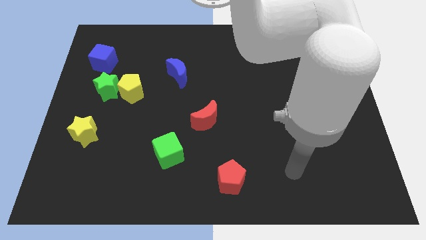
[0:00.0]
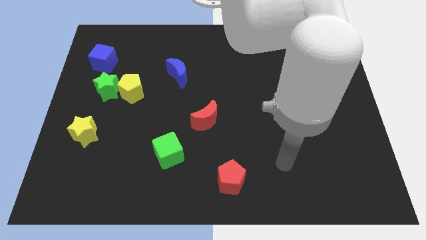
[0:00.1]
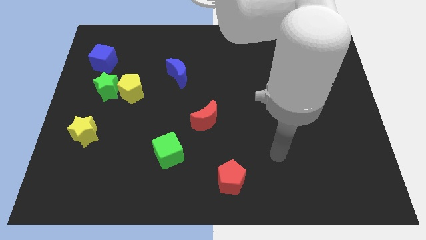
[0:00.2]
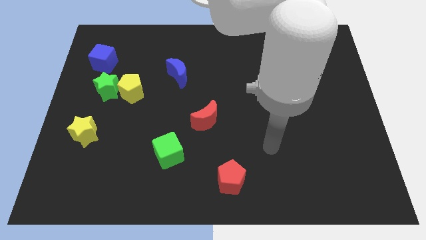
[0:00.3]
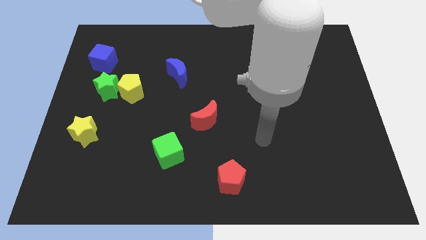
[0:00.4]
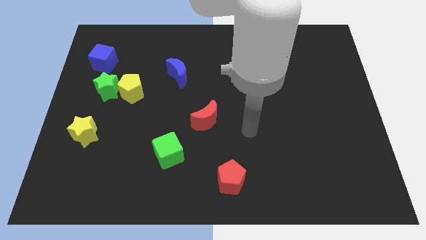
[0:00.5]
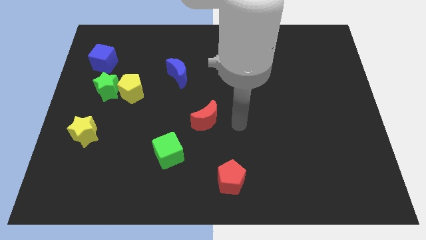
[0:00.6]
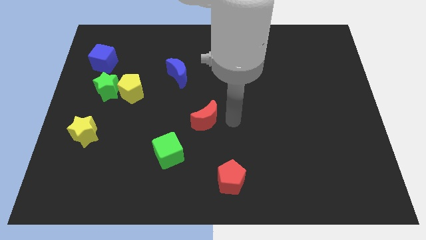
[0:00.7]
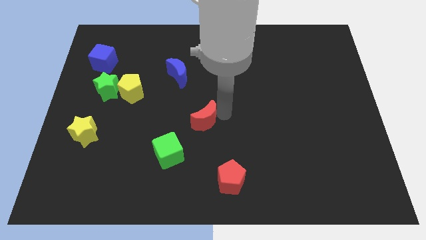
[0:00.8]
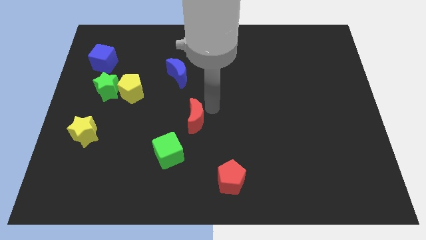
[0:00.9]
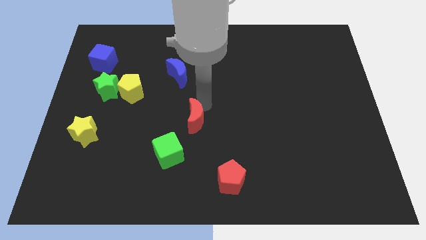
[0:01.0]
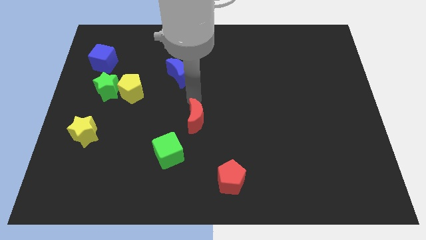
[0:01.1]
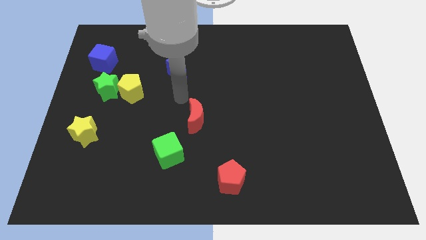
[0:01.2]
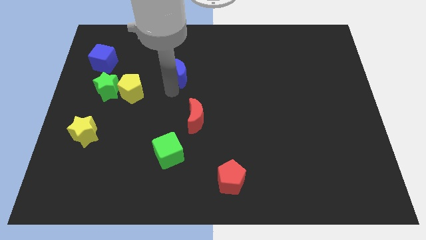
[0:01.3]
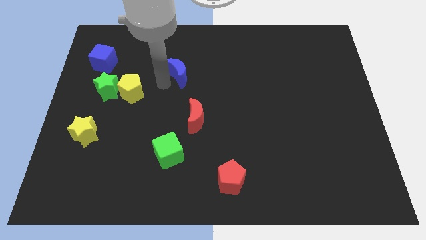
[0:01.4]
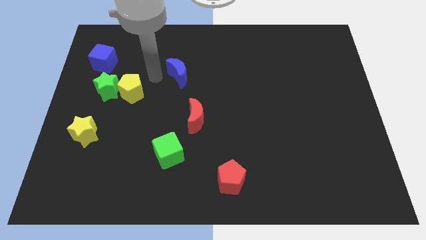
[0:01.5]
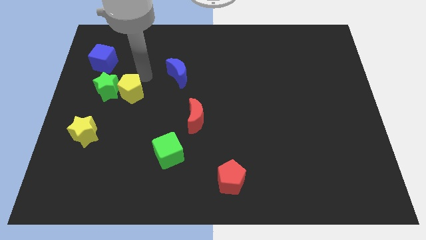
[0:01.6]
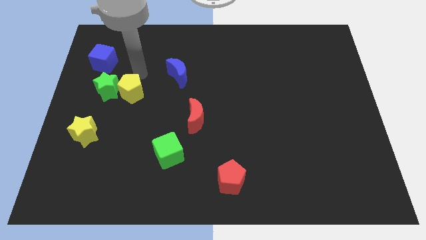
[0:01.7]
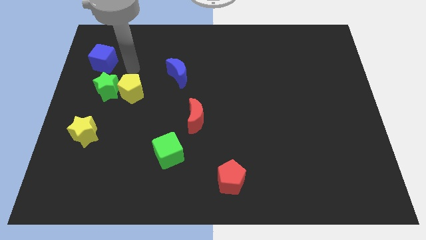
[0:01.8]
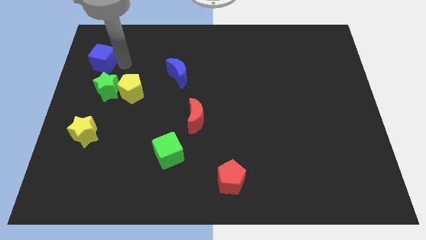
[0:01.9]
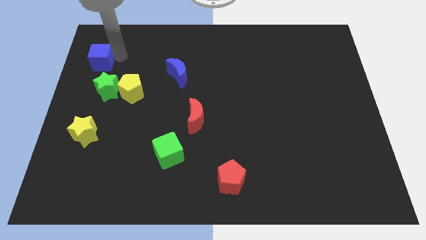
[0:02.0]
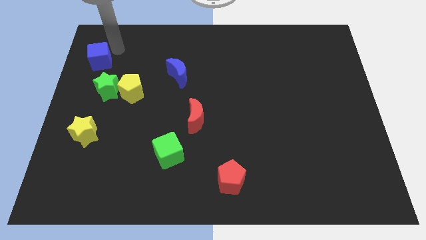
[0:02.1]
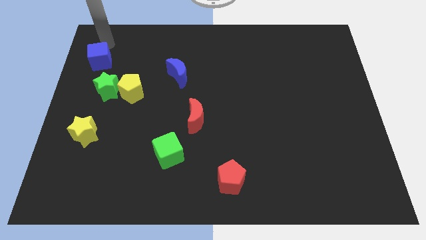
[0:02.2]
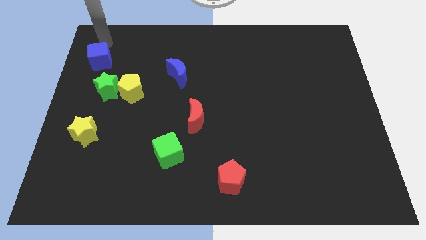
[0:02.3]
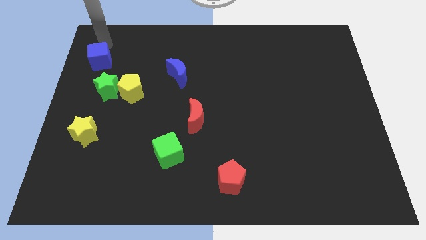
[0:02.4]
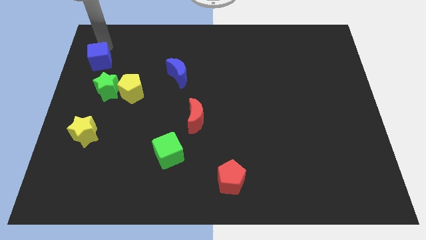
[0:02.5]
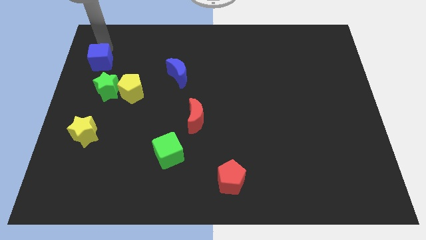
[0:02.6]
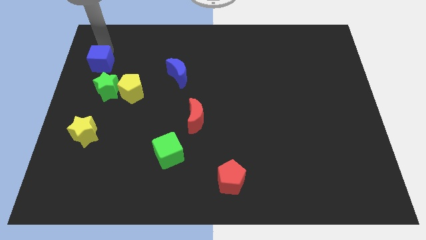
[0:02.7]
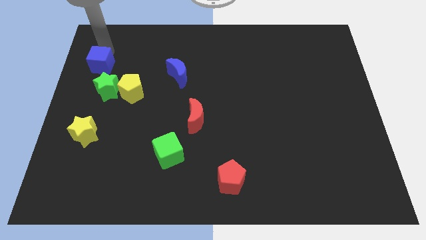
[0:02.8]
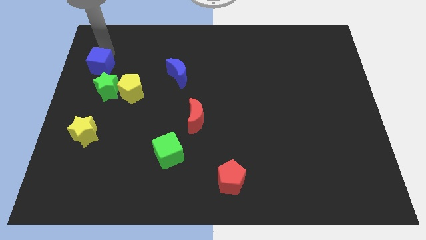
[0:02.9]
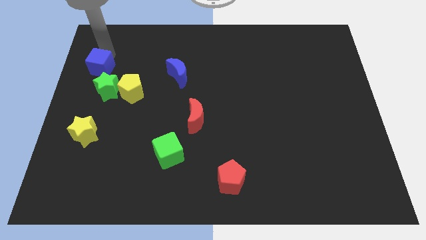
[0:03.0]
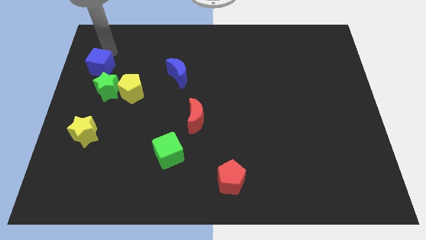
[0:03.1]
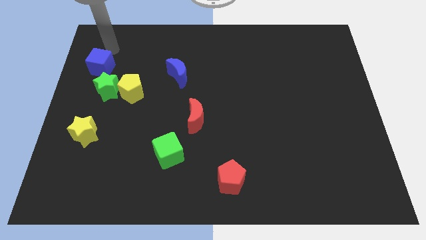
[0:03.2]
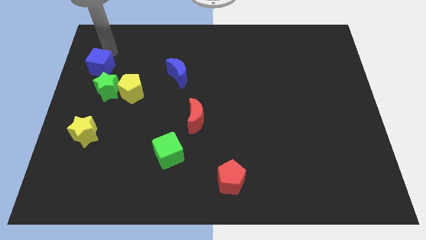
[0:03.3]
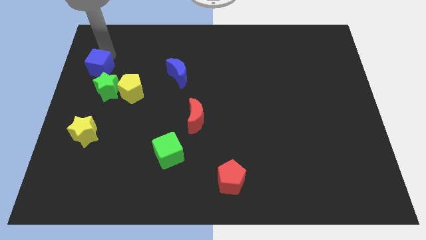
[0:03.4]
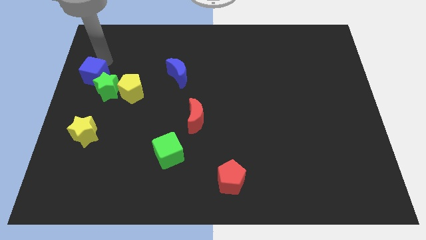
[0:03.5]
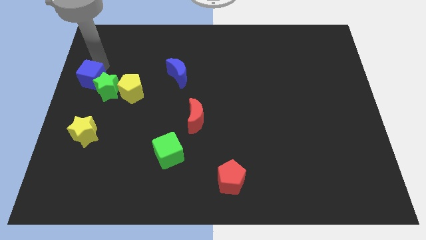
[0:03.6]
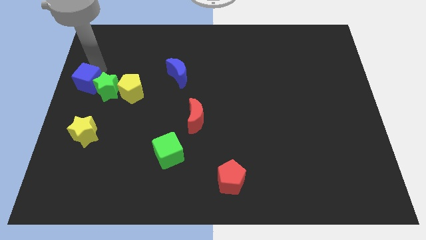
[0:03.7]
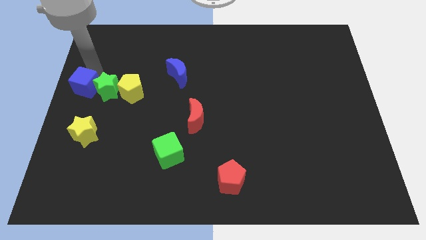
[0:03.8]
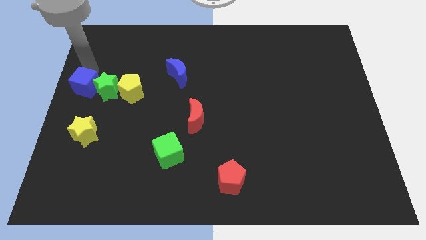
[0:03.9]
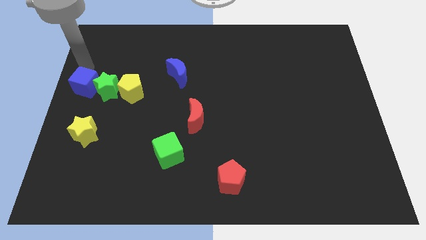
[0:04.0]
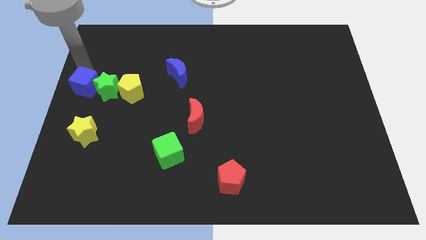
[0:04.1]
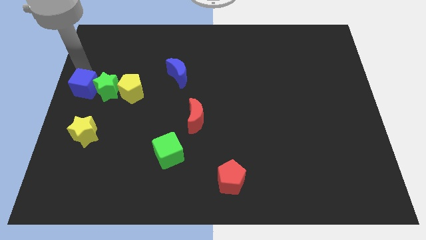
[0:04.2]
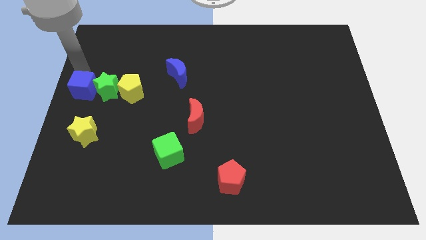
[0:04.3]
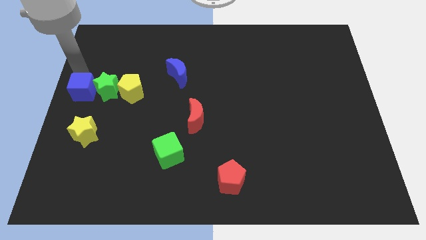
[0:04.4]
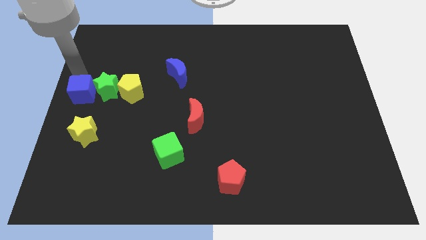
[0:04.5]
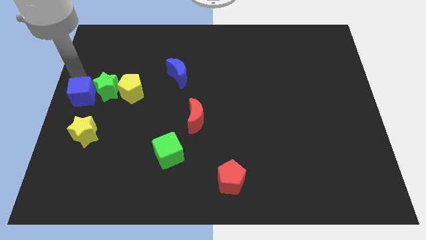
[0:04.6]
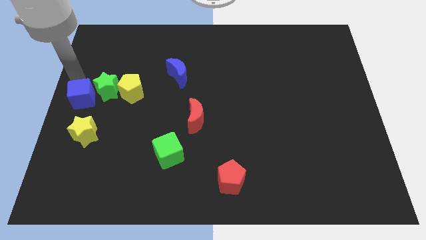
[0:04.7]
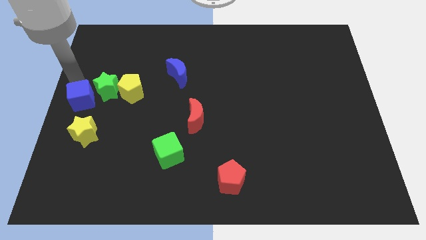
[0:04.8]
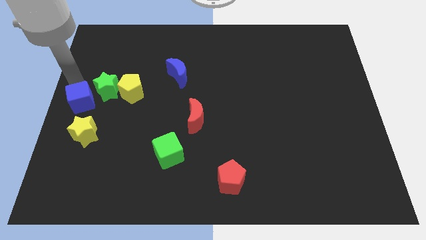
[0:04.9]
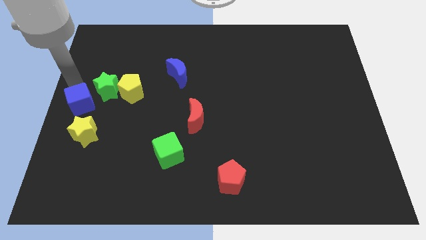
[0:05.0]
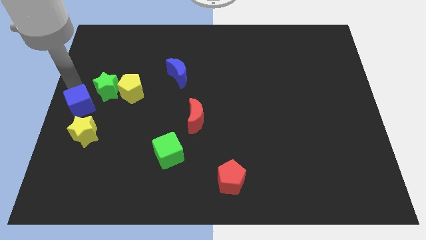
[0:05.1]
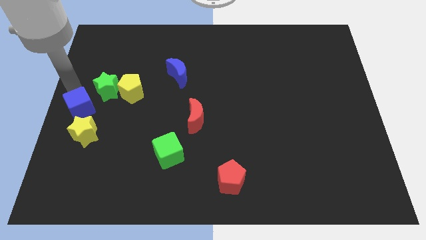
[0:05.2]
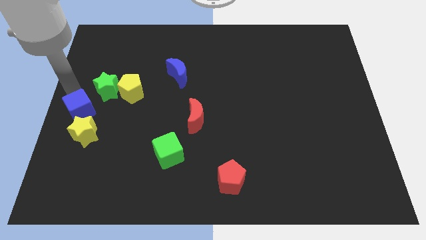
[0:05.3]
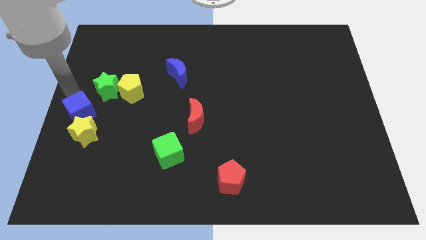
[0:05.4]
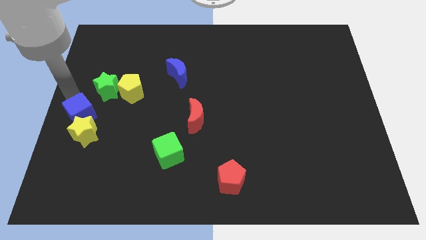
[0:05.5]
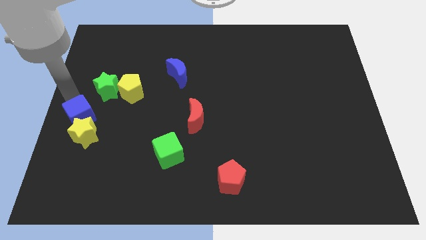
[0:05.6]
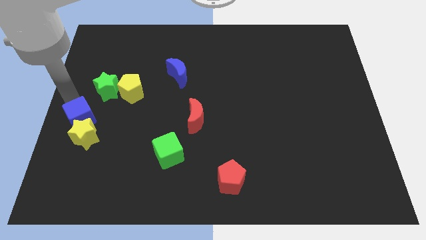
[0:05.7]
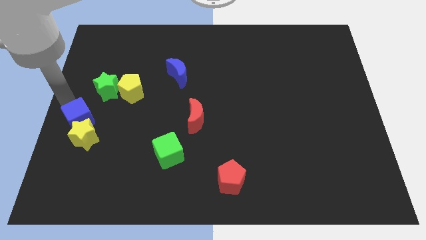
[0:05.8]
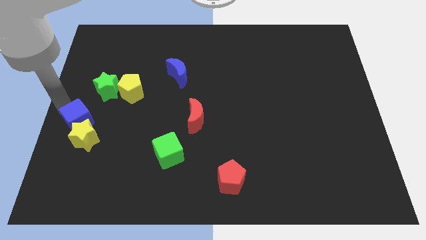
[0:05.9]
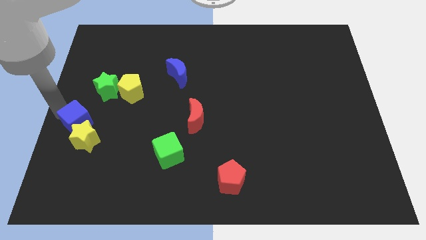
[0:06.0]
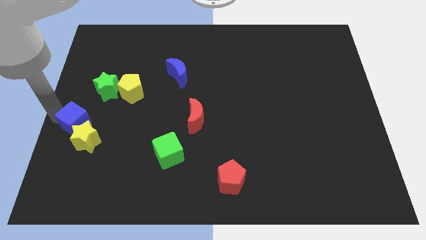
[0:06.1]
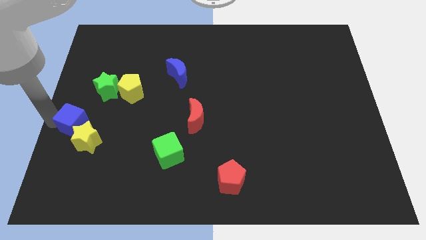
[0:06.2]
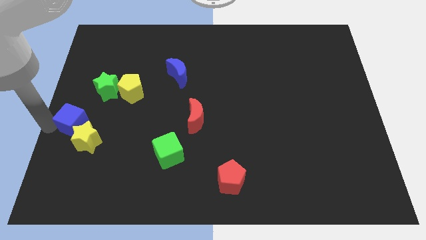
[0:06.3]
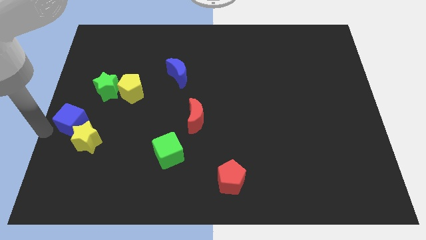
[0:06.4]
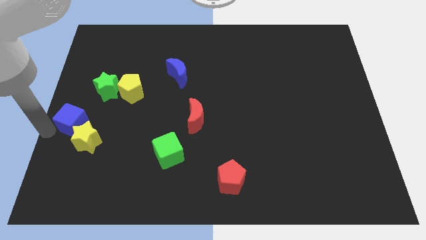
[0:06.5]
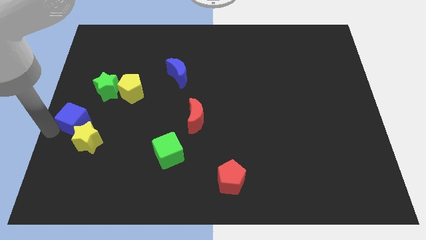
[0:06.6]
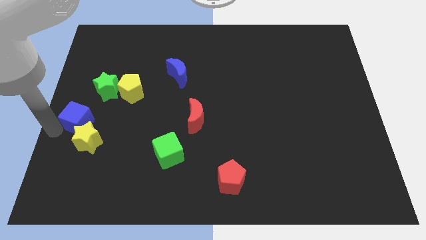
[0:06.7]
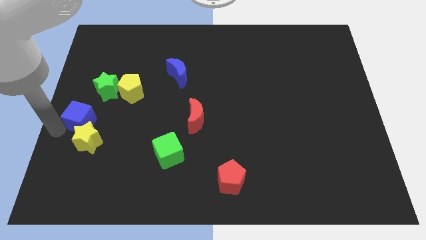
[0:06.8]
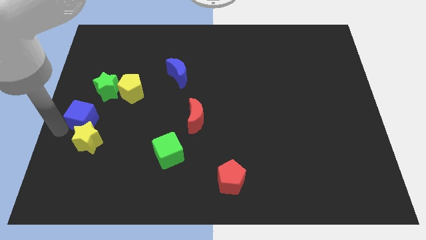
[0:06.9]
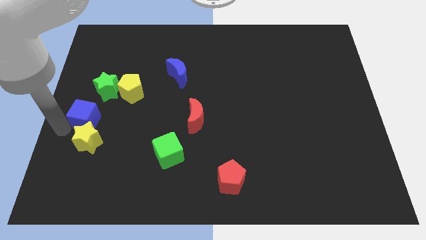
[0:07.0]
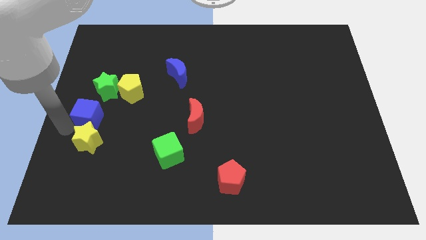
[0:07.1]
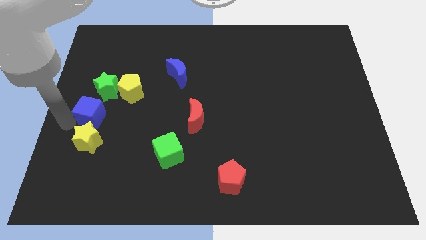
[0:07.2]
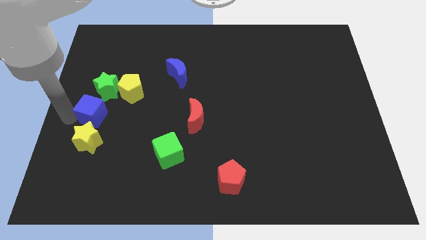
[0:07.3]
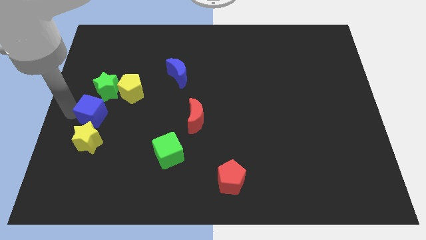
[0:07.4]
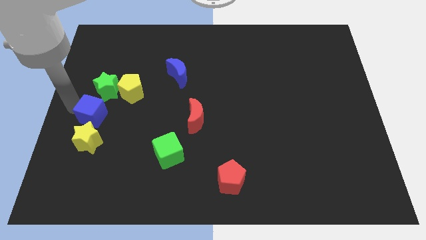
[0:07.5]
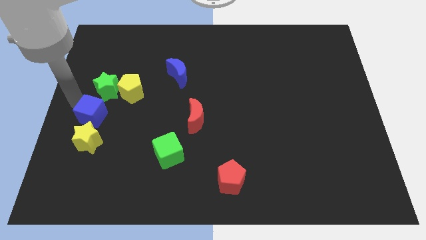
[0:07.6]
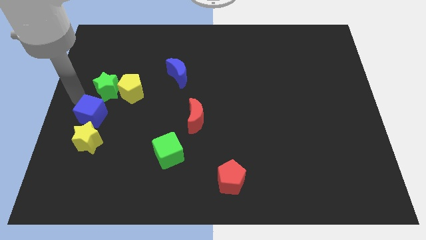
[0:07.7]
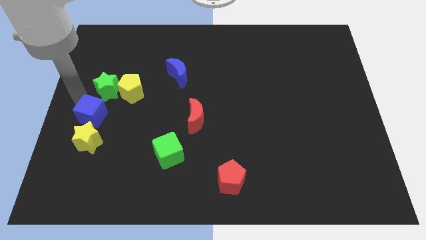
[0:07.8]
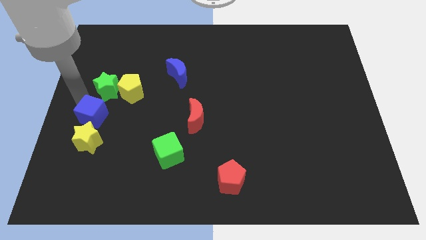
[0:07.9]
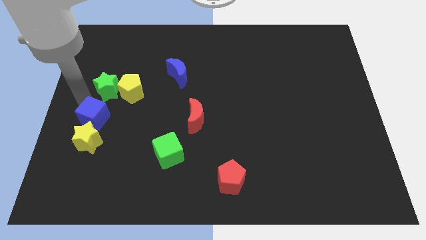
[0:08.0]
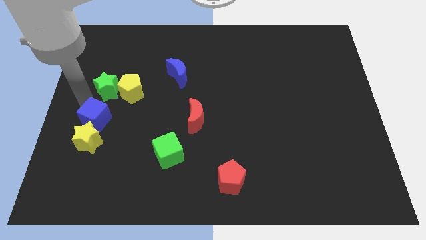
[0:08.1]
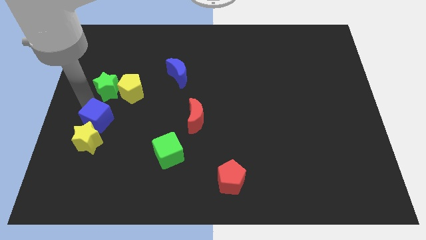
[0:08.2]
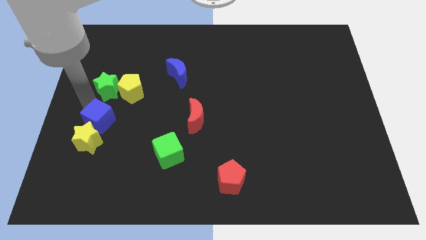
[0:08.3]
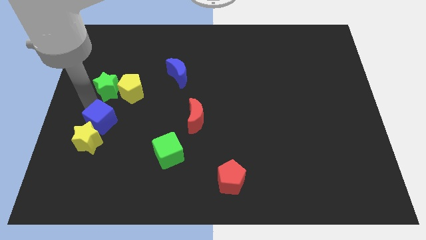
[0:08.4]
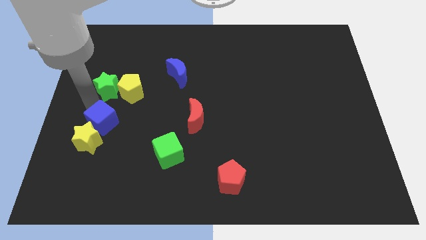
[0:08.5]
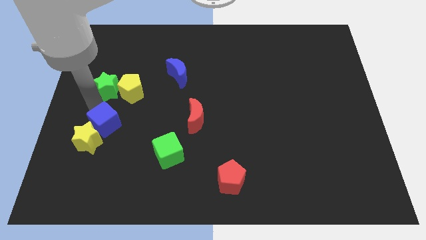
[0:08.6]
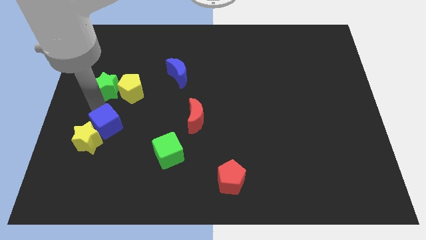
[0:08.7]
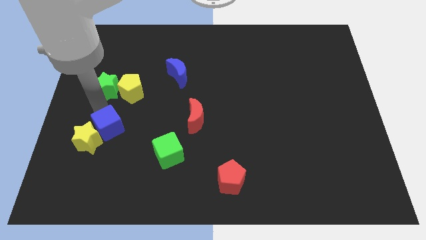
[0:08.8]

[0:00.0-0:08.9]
push the blue cube down
